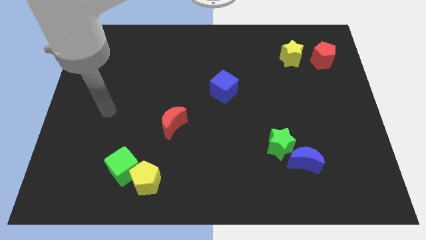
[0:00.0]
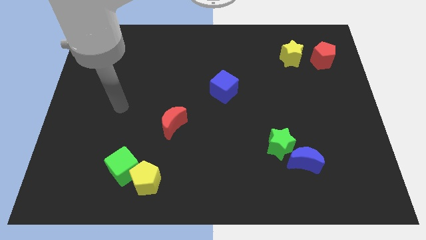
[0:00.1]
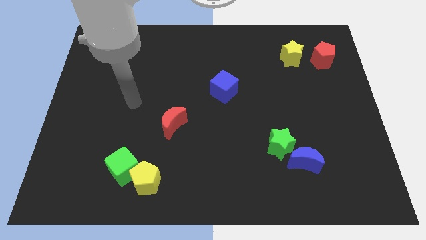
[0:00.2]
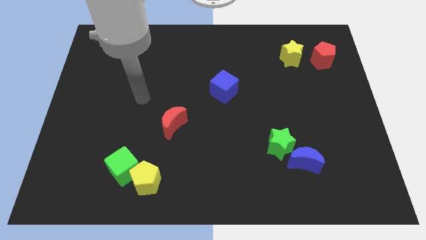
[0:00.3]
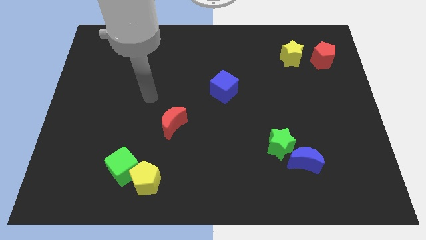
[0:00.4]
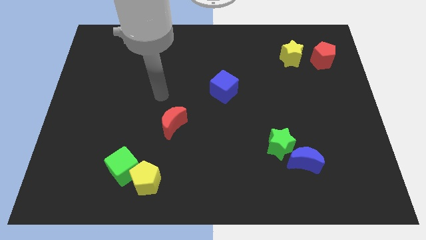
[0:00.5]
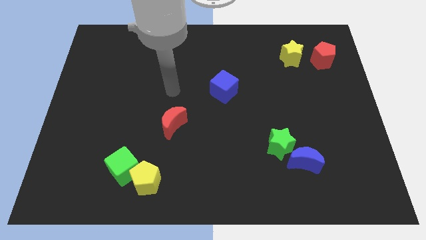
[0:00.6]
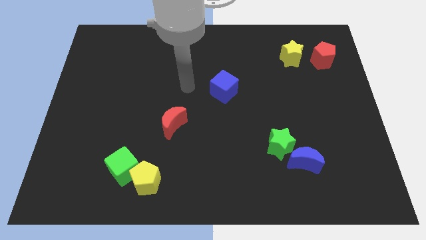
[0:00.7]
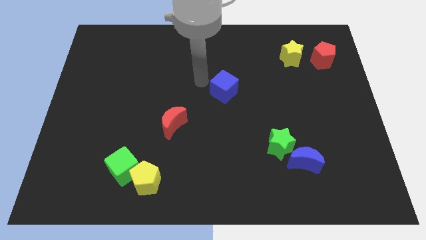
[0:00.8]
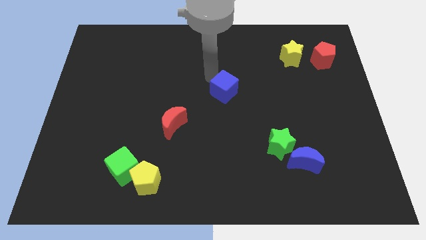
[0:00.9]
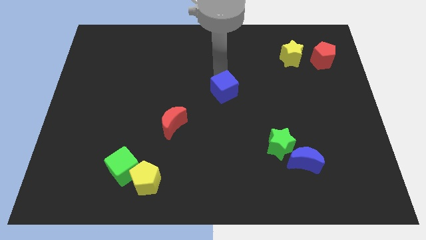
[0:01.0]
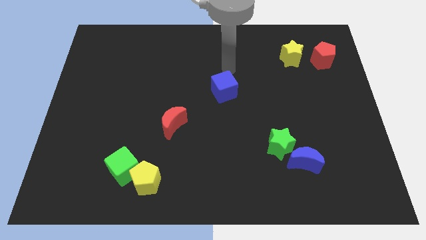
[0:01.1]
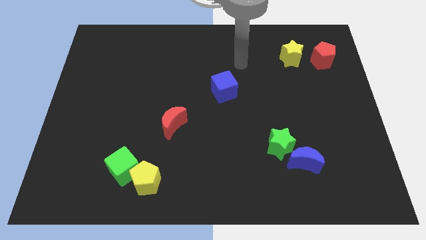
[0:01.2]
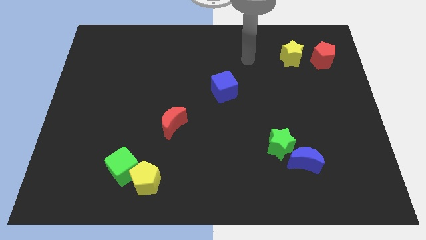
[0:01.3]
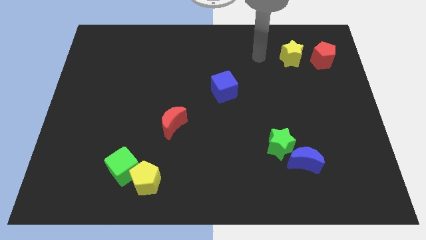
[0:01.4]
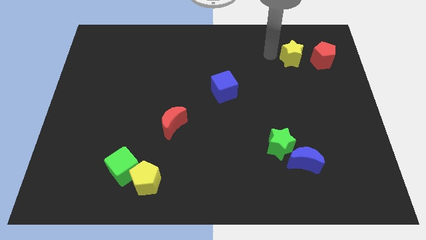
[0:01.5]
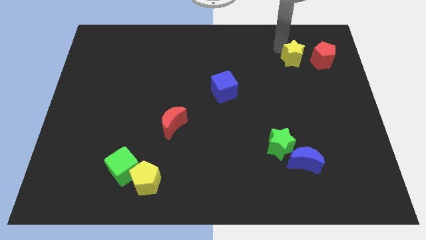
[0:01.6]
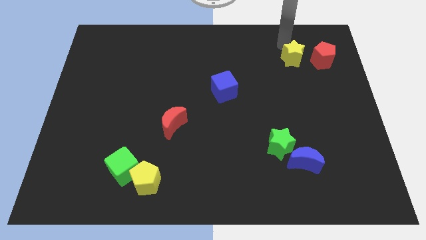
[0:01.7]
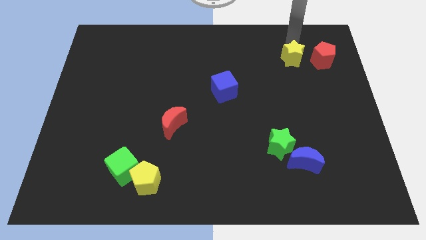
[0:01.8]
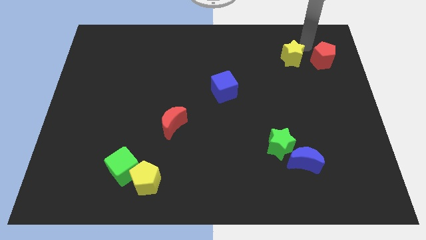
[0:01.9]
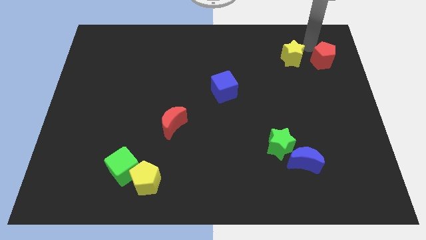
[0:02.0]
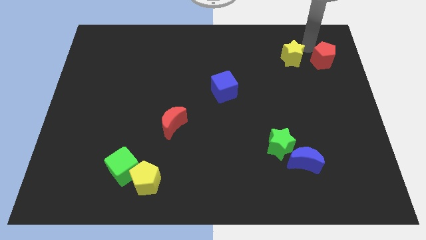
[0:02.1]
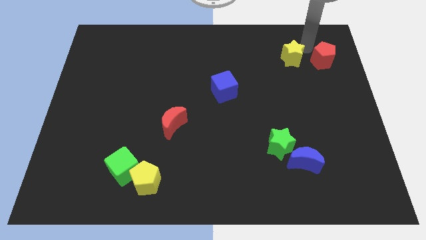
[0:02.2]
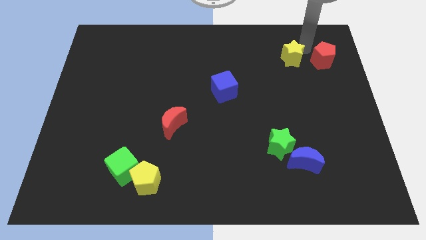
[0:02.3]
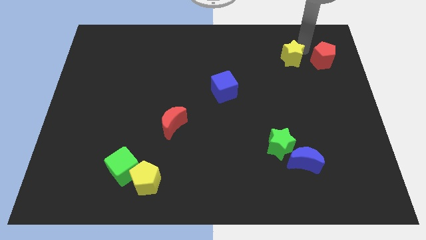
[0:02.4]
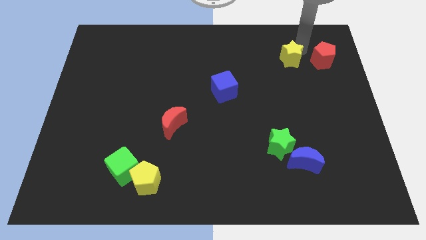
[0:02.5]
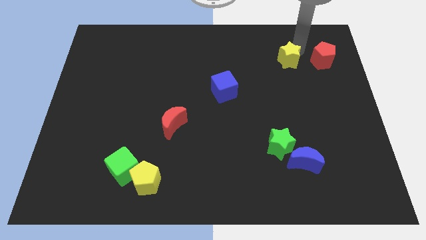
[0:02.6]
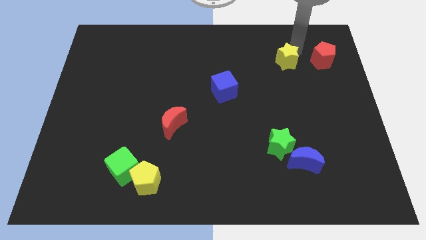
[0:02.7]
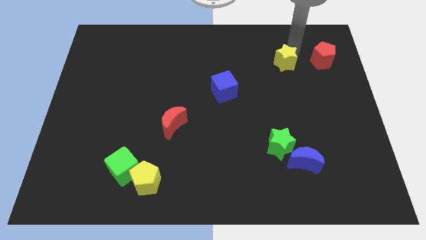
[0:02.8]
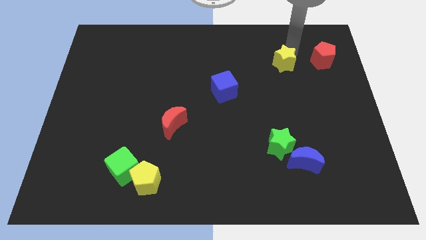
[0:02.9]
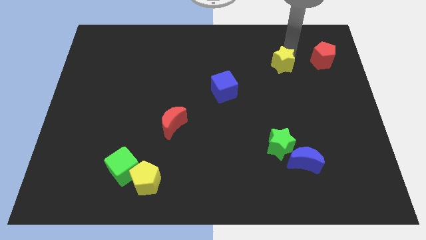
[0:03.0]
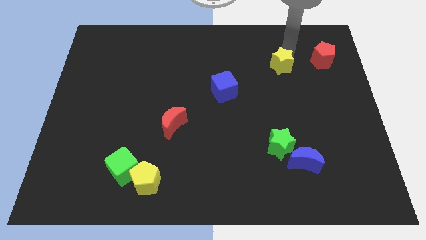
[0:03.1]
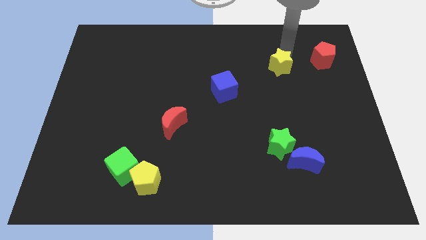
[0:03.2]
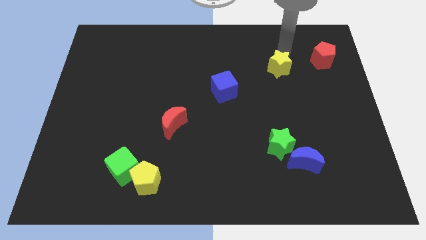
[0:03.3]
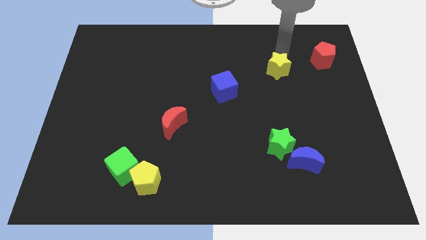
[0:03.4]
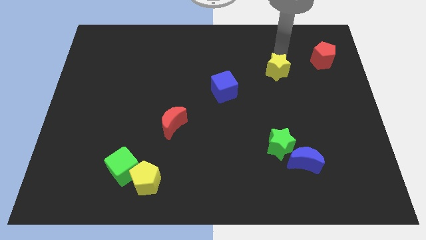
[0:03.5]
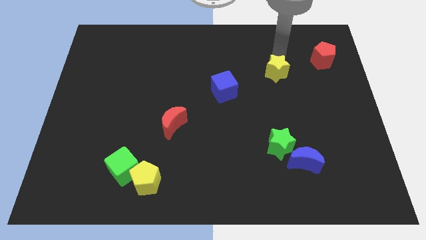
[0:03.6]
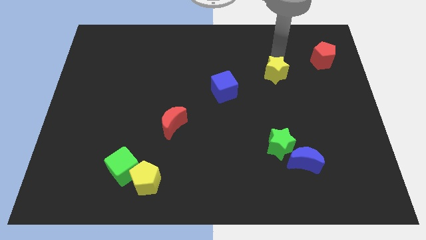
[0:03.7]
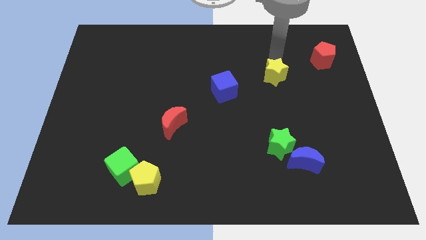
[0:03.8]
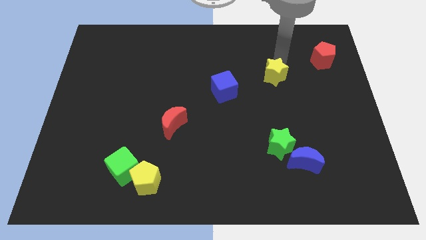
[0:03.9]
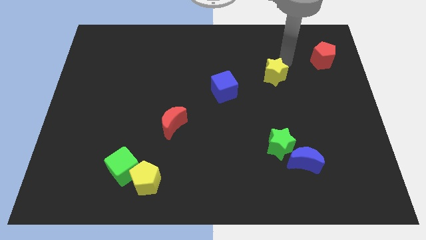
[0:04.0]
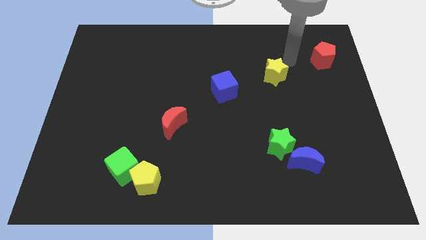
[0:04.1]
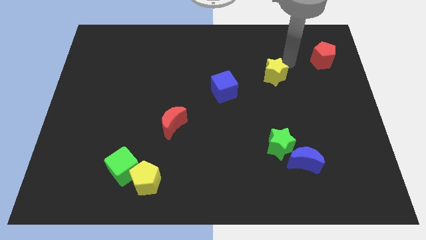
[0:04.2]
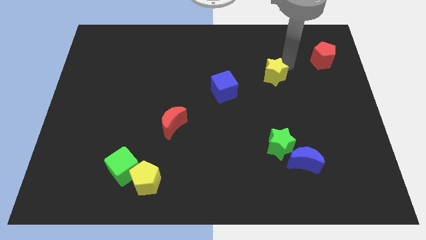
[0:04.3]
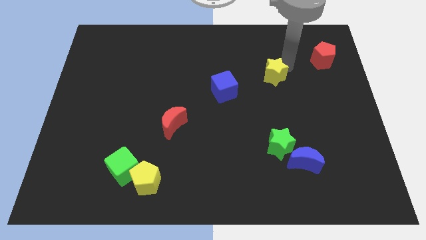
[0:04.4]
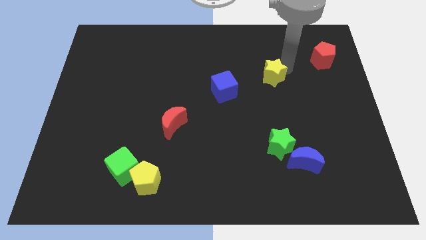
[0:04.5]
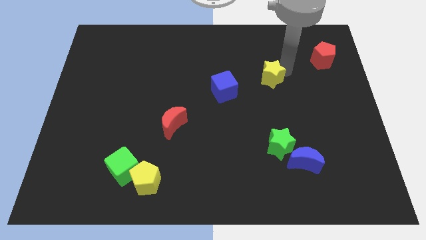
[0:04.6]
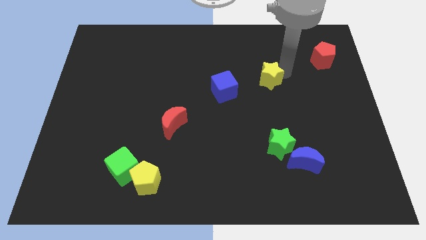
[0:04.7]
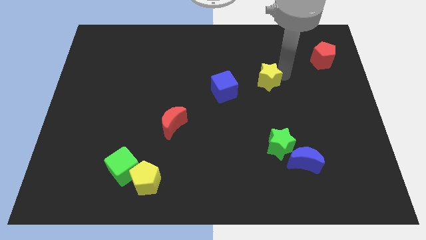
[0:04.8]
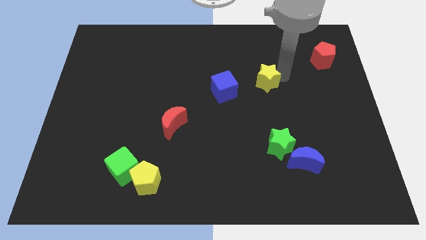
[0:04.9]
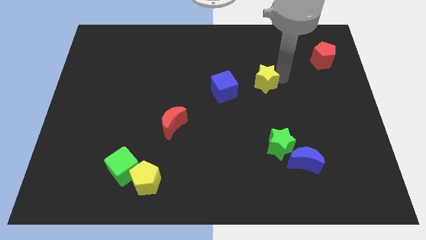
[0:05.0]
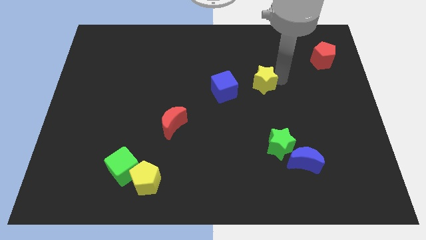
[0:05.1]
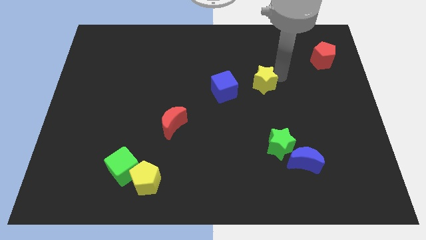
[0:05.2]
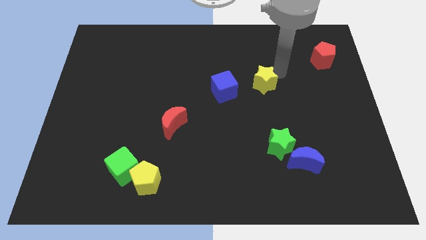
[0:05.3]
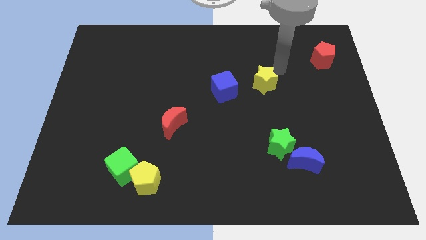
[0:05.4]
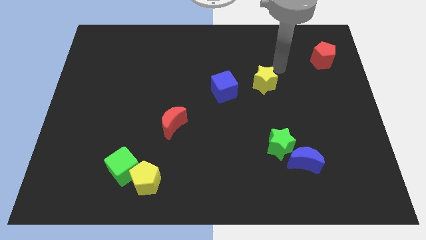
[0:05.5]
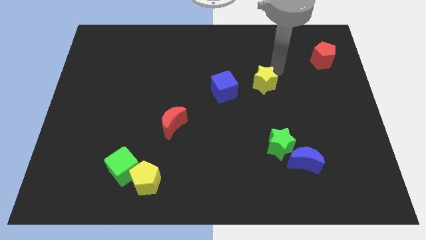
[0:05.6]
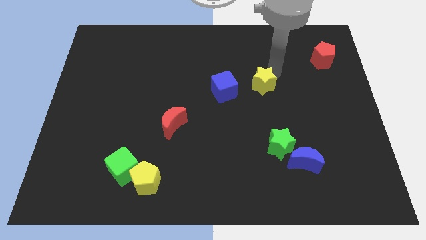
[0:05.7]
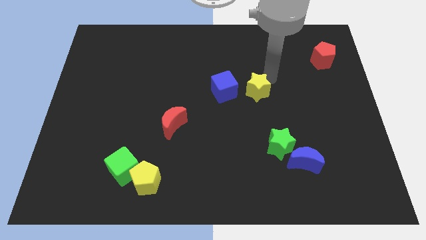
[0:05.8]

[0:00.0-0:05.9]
push the yellow star to the center
